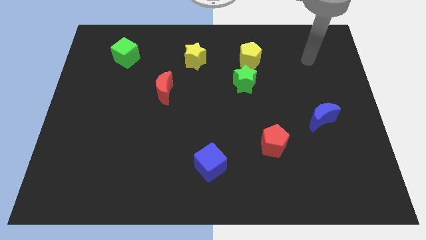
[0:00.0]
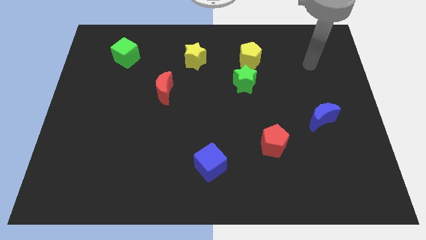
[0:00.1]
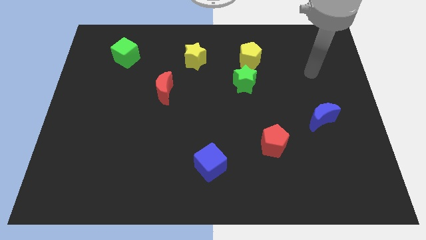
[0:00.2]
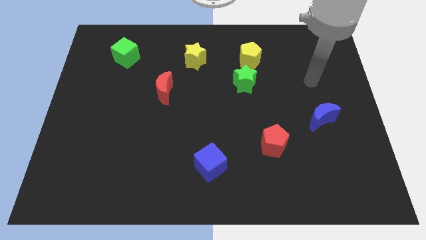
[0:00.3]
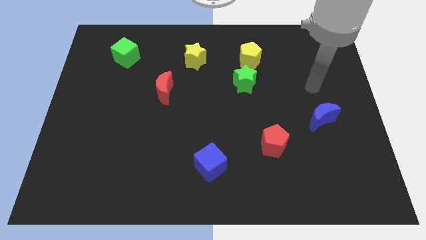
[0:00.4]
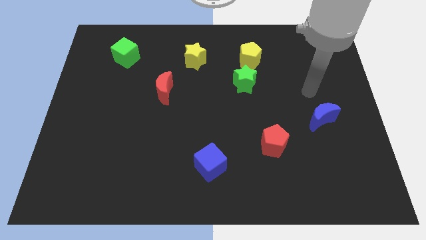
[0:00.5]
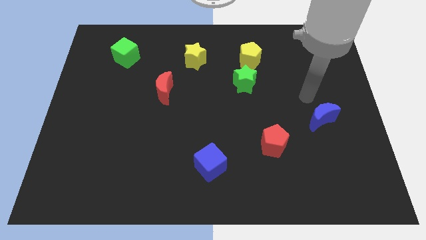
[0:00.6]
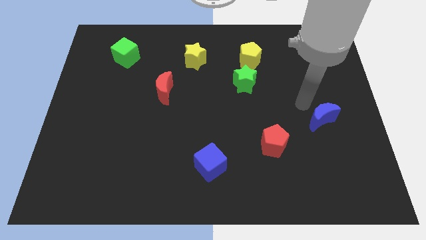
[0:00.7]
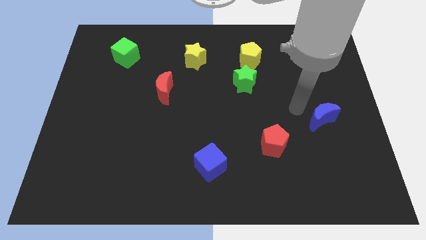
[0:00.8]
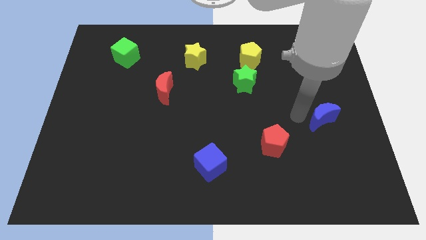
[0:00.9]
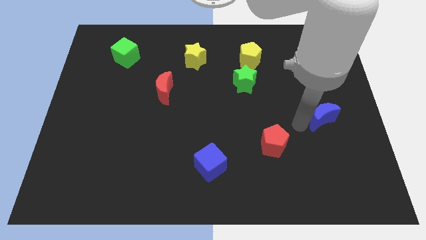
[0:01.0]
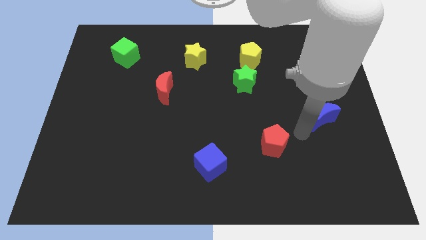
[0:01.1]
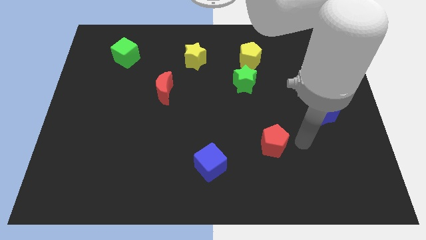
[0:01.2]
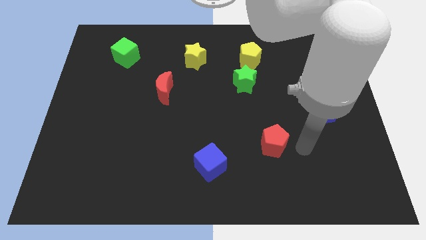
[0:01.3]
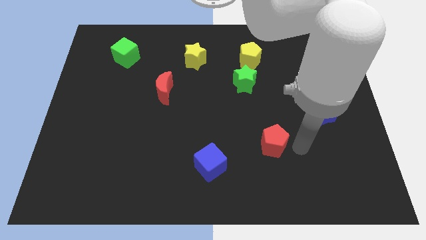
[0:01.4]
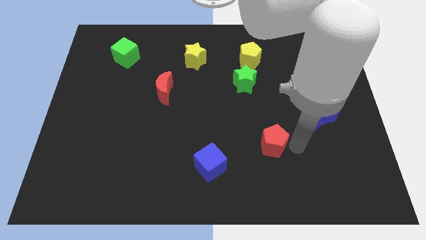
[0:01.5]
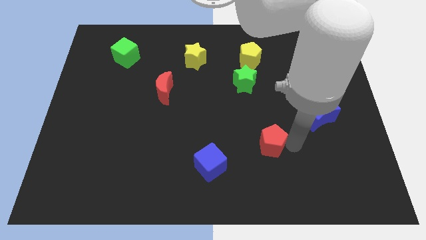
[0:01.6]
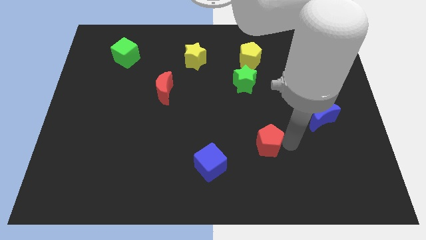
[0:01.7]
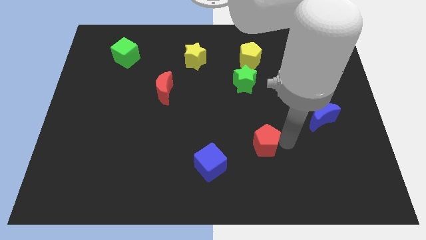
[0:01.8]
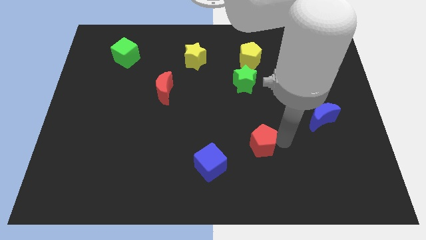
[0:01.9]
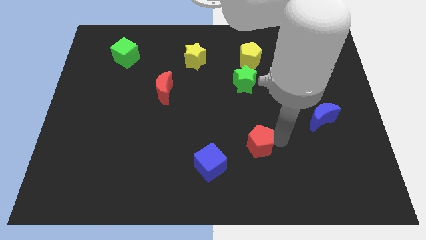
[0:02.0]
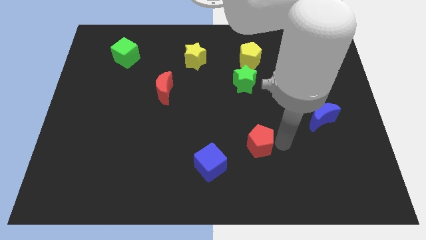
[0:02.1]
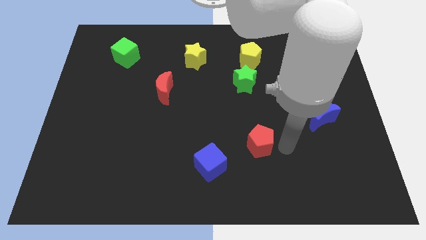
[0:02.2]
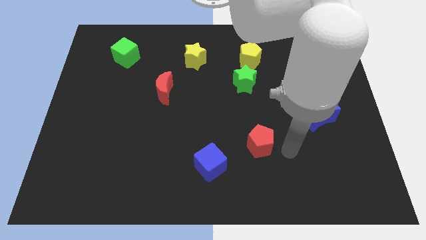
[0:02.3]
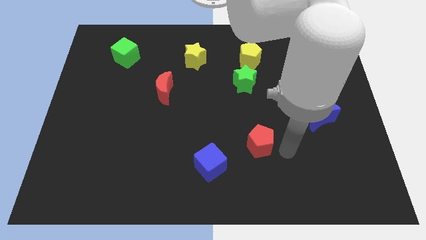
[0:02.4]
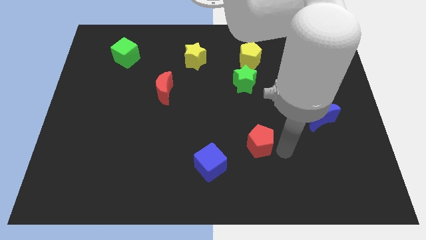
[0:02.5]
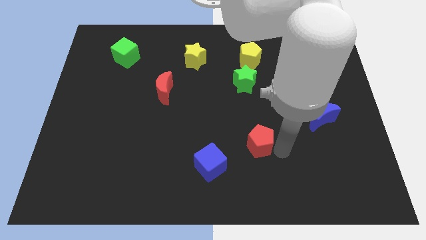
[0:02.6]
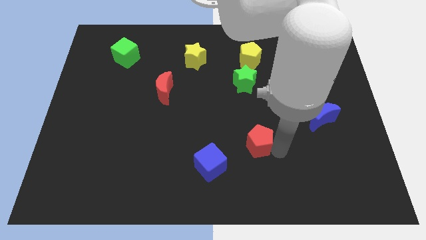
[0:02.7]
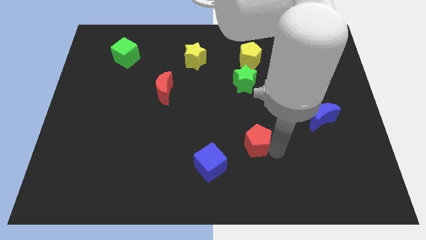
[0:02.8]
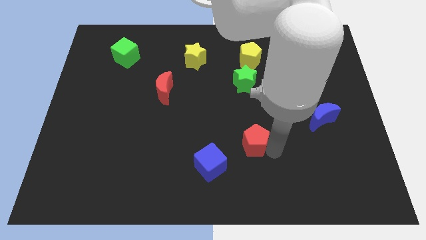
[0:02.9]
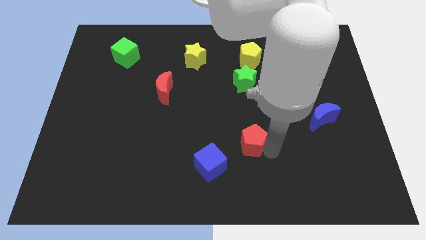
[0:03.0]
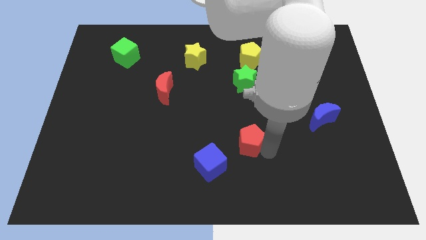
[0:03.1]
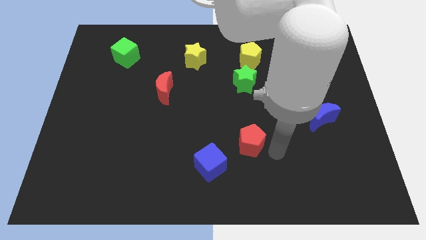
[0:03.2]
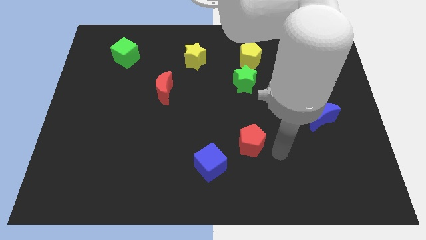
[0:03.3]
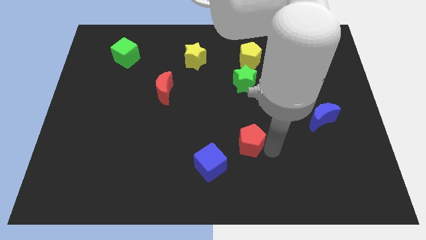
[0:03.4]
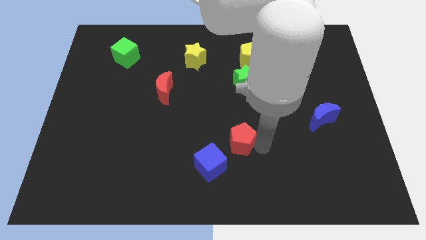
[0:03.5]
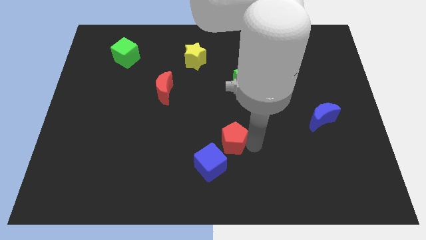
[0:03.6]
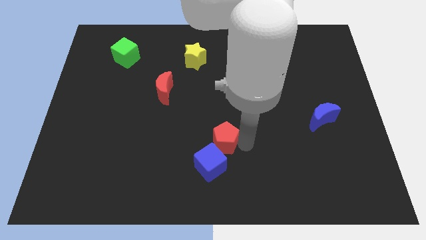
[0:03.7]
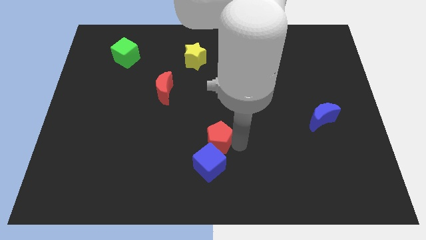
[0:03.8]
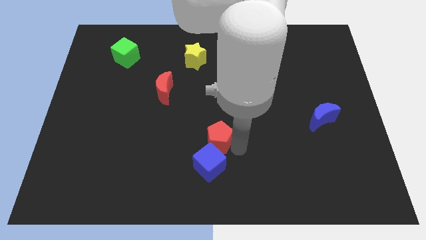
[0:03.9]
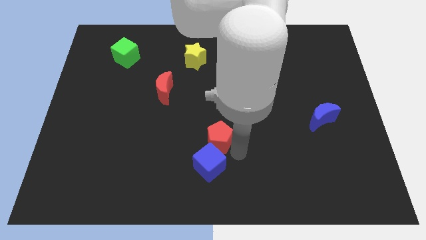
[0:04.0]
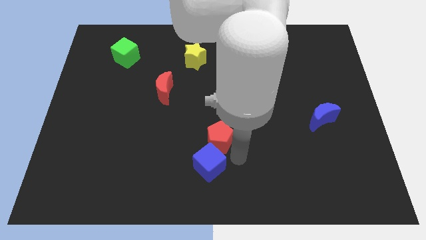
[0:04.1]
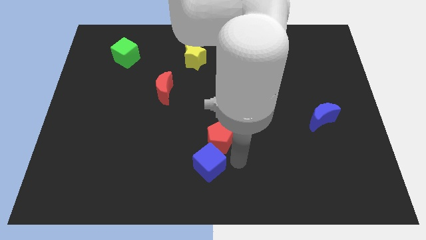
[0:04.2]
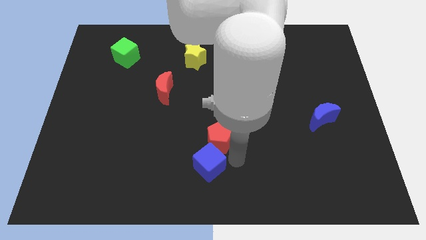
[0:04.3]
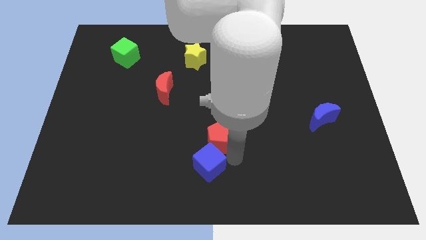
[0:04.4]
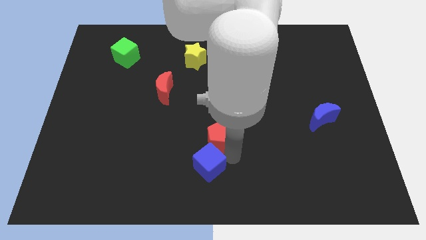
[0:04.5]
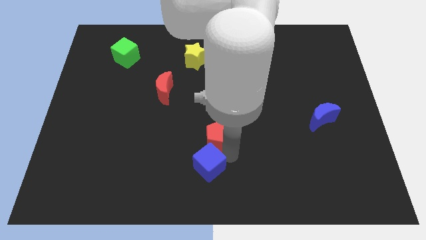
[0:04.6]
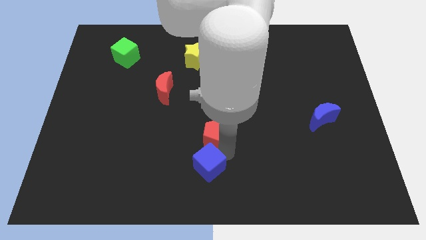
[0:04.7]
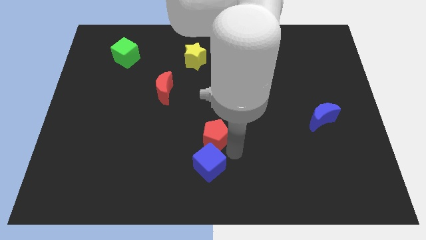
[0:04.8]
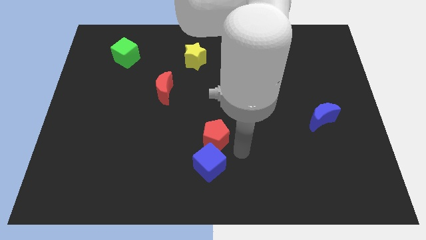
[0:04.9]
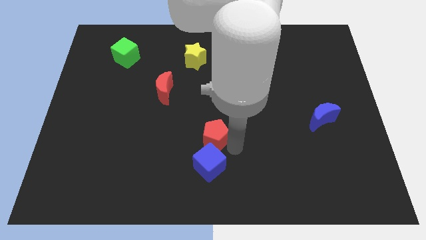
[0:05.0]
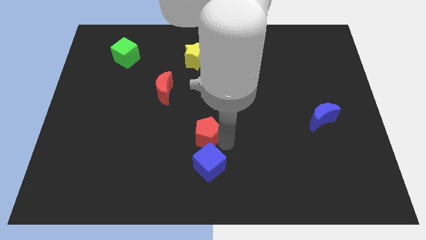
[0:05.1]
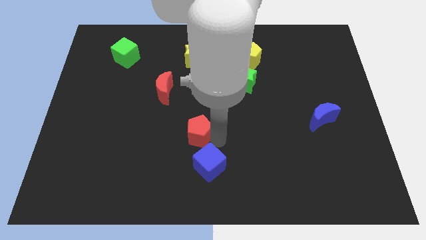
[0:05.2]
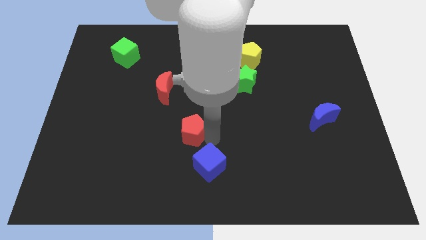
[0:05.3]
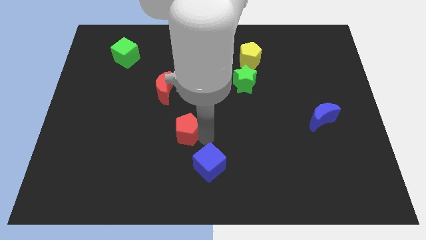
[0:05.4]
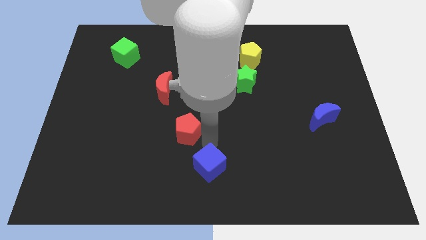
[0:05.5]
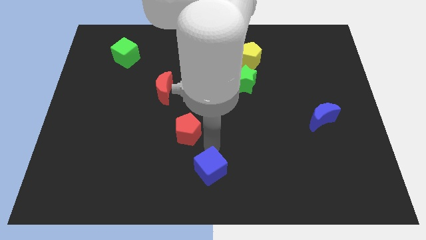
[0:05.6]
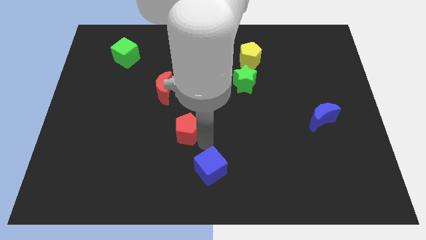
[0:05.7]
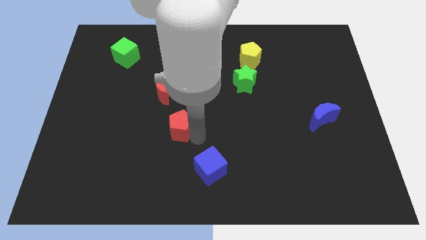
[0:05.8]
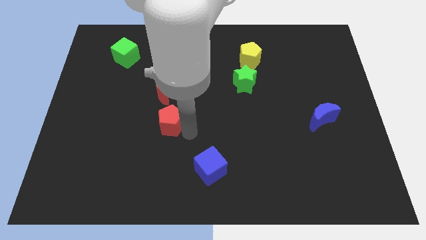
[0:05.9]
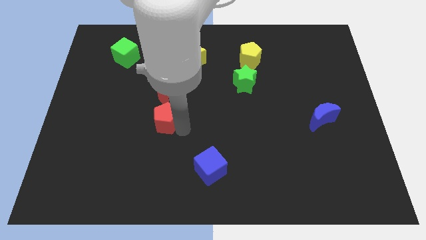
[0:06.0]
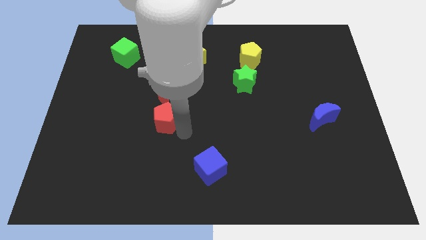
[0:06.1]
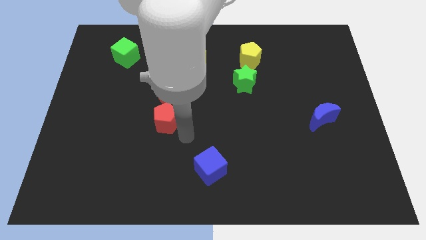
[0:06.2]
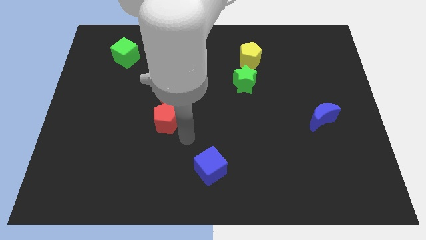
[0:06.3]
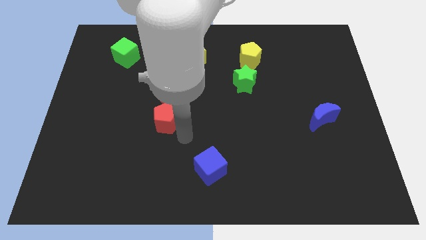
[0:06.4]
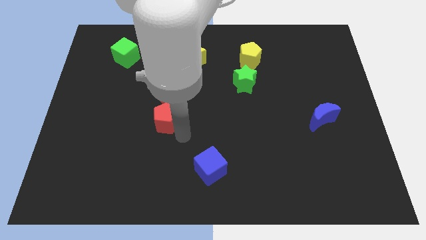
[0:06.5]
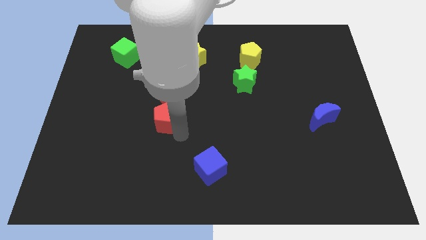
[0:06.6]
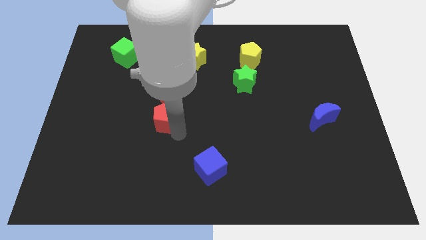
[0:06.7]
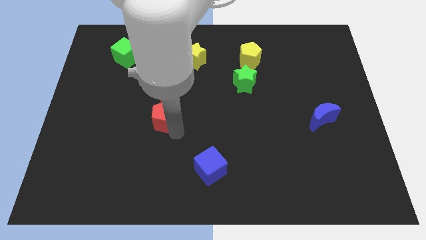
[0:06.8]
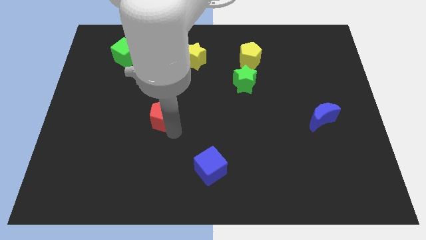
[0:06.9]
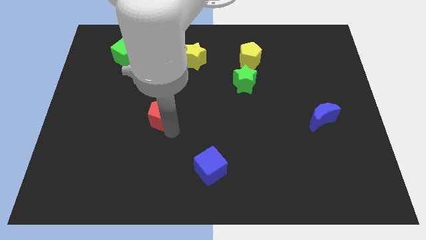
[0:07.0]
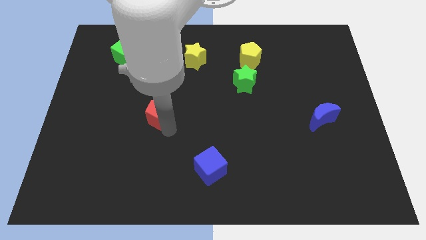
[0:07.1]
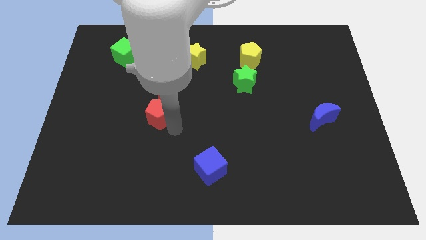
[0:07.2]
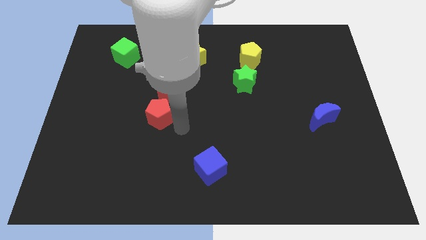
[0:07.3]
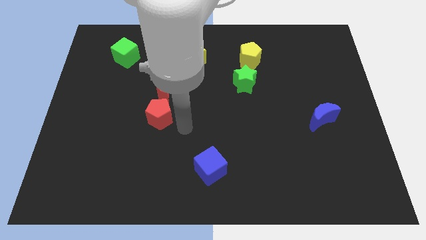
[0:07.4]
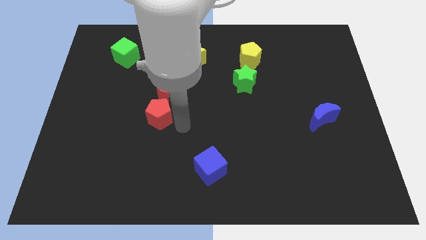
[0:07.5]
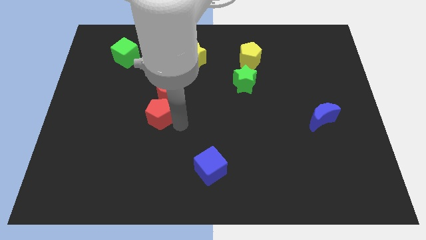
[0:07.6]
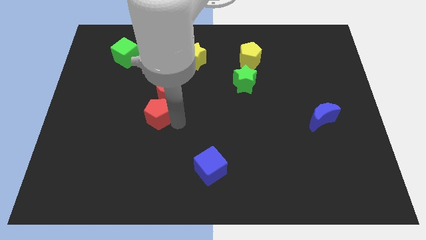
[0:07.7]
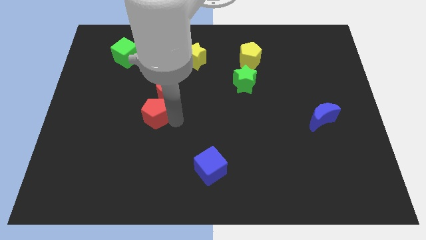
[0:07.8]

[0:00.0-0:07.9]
move the red pentagon to the bottom left side of the red moon
